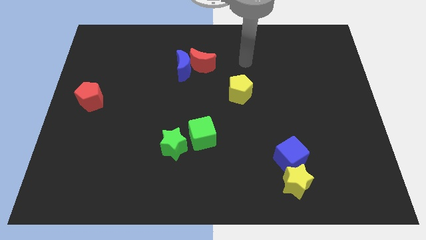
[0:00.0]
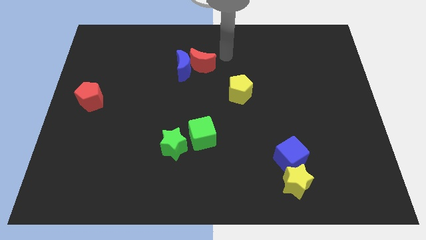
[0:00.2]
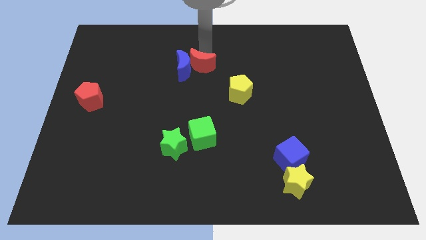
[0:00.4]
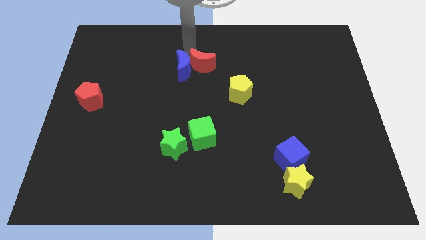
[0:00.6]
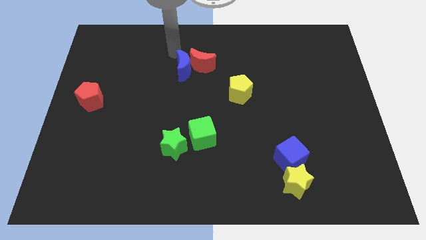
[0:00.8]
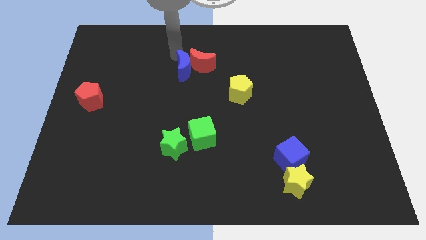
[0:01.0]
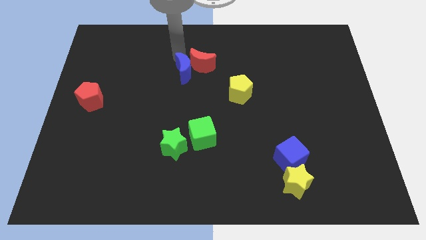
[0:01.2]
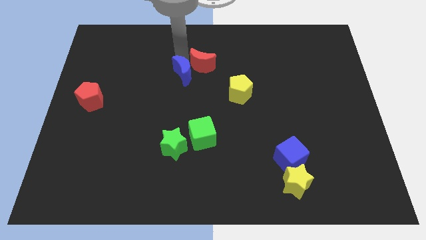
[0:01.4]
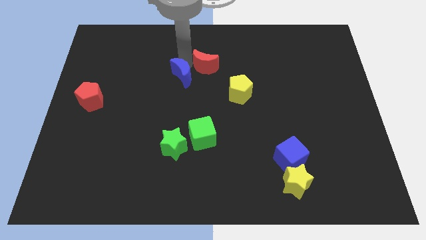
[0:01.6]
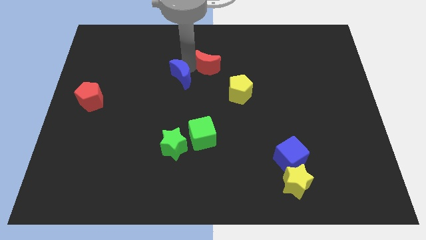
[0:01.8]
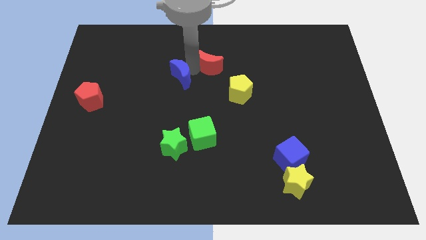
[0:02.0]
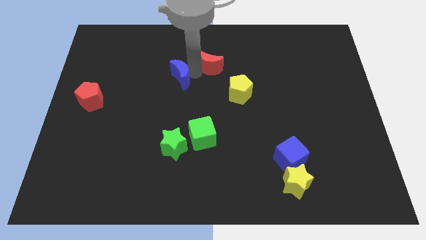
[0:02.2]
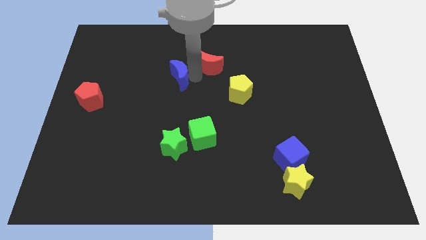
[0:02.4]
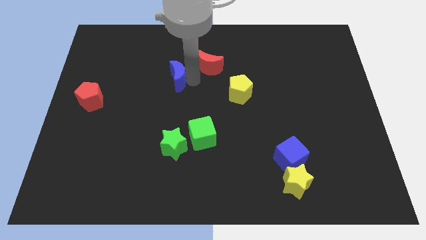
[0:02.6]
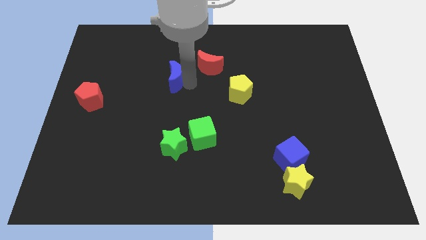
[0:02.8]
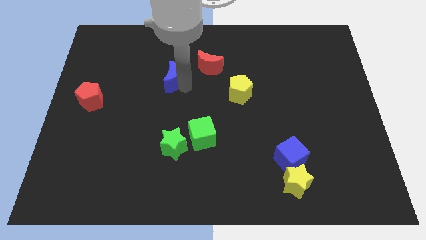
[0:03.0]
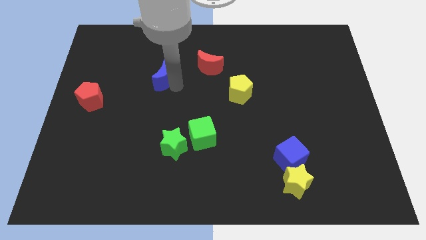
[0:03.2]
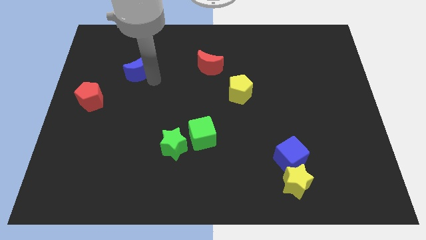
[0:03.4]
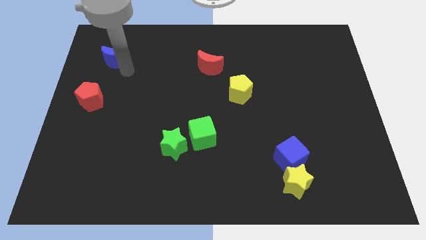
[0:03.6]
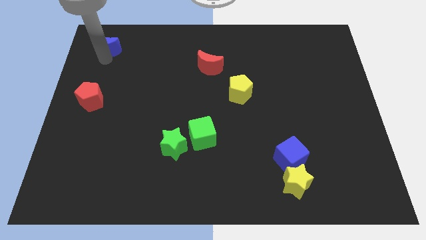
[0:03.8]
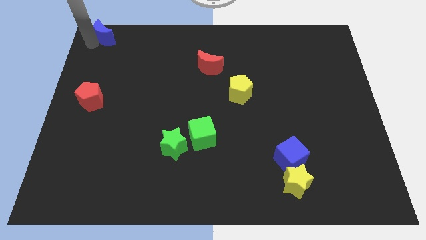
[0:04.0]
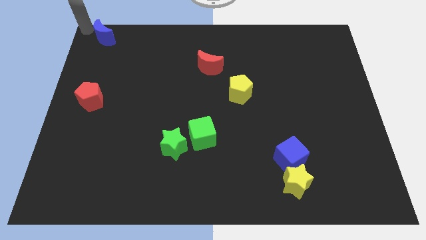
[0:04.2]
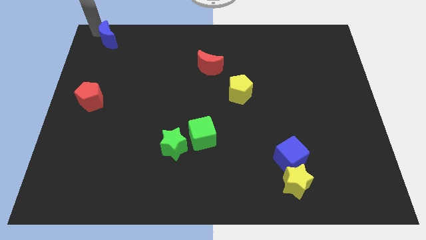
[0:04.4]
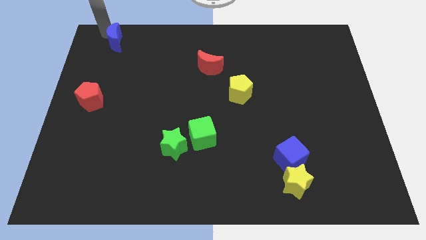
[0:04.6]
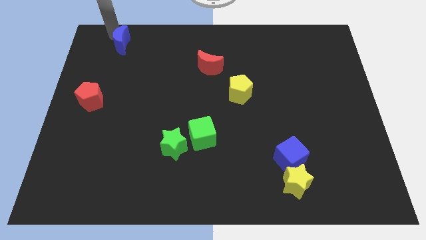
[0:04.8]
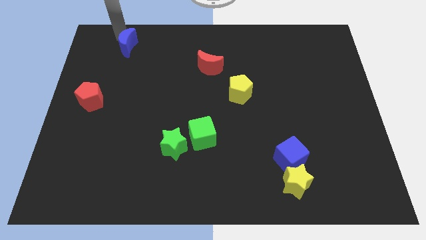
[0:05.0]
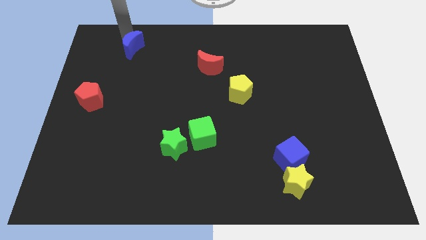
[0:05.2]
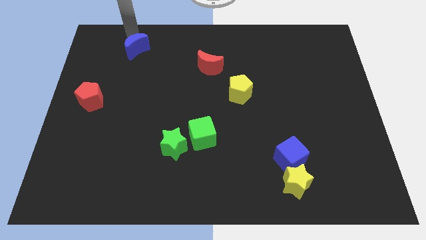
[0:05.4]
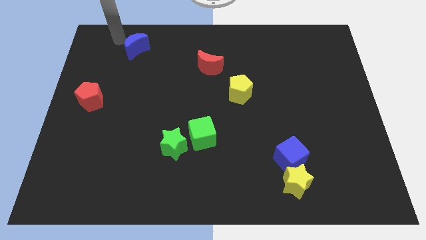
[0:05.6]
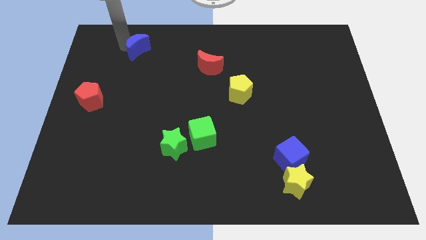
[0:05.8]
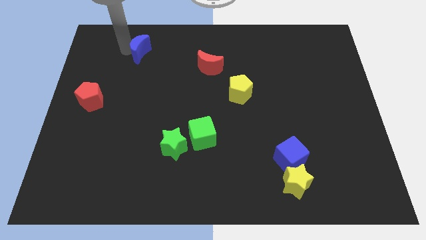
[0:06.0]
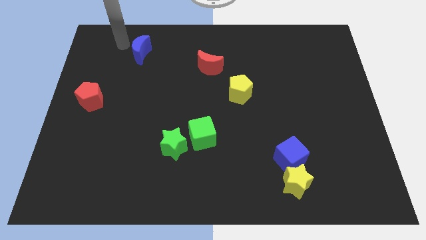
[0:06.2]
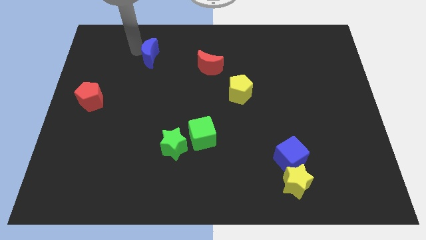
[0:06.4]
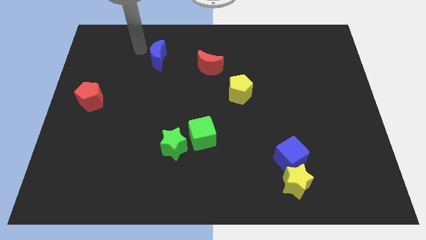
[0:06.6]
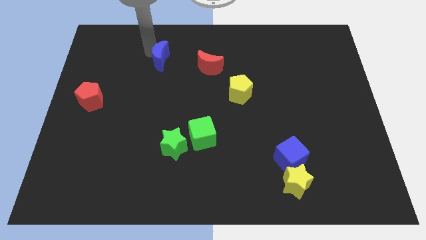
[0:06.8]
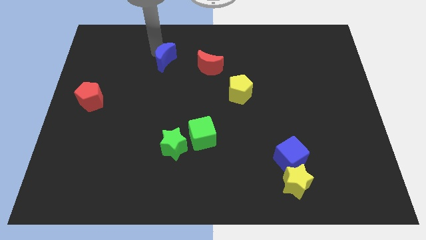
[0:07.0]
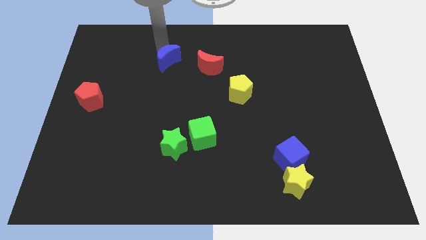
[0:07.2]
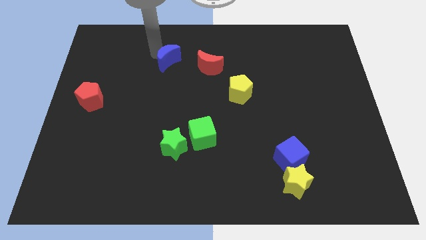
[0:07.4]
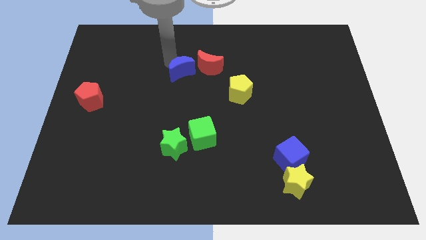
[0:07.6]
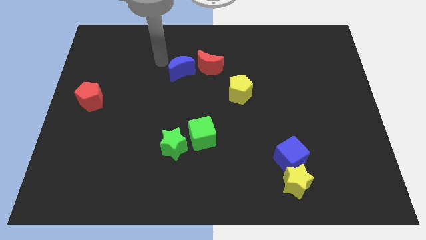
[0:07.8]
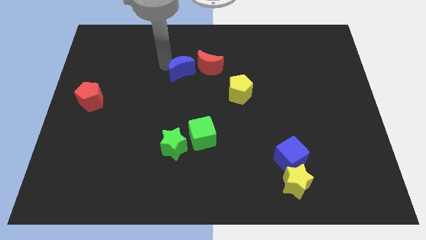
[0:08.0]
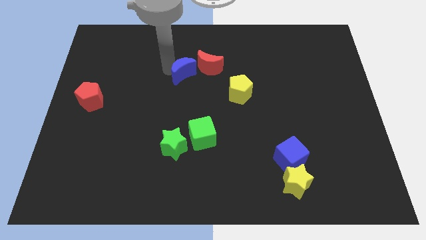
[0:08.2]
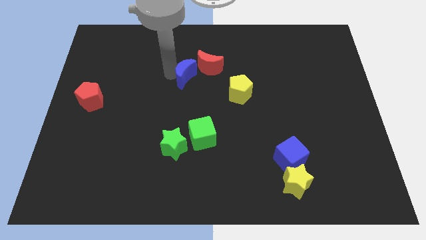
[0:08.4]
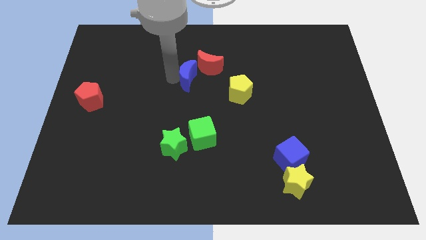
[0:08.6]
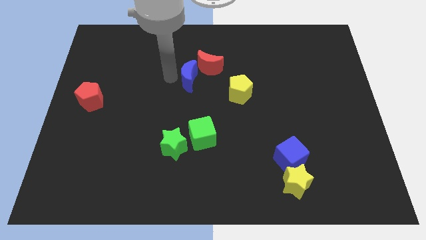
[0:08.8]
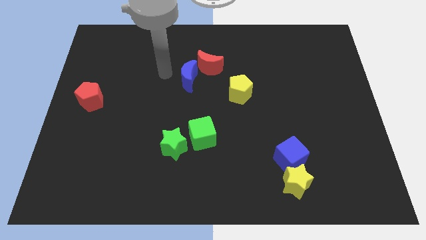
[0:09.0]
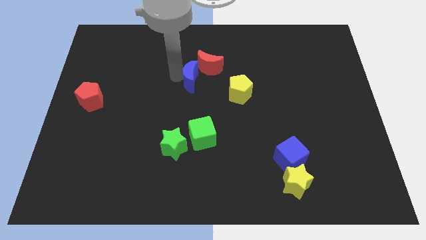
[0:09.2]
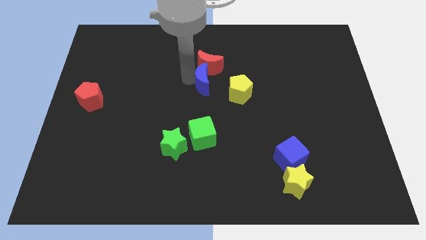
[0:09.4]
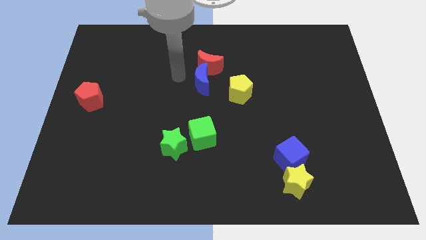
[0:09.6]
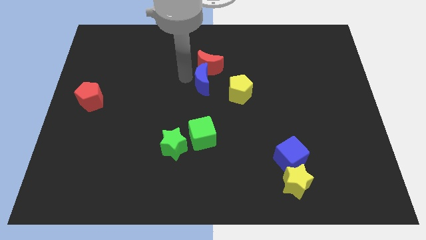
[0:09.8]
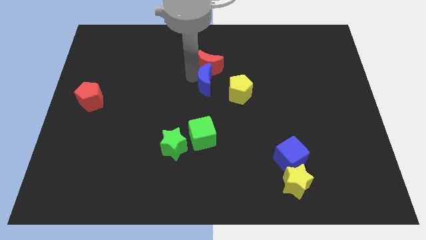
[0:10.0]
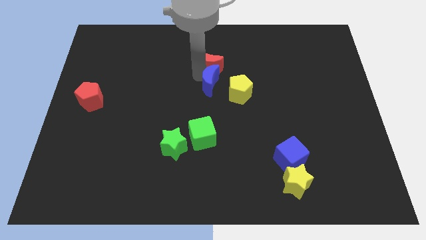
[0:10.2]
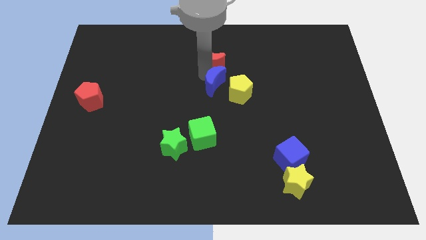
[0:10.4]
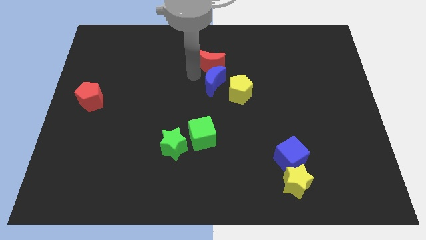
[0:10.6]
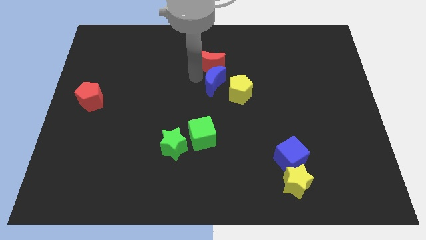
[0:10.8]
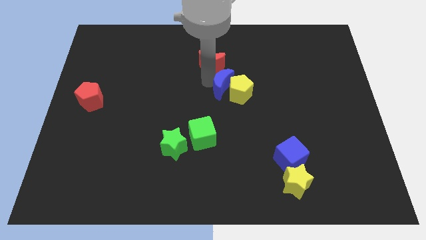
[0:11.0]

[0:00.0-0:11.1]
move the blue moon close to the yellow pentagon

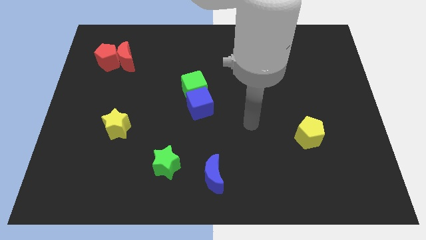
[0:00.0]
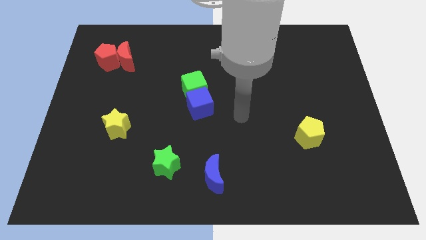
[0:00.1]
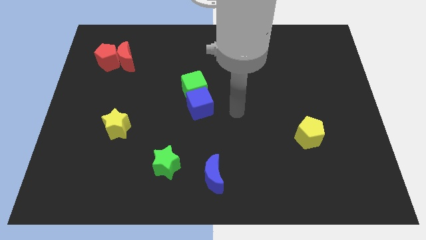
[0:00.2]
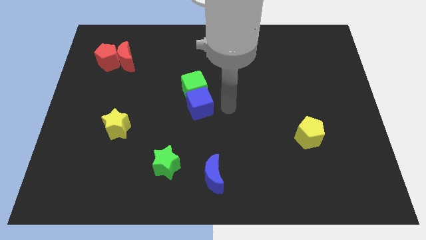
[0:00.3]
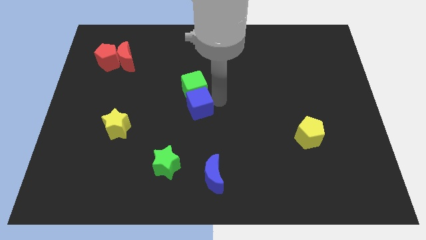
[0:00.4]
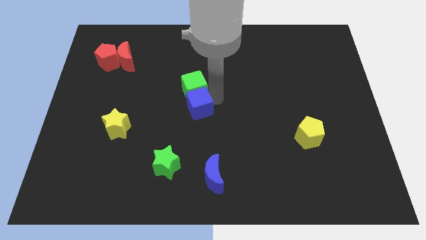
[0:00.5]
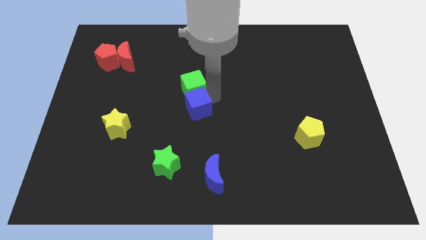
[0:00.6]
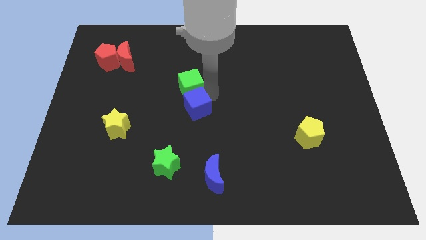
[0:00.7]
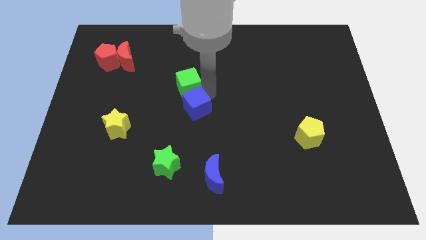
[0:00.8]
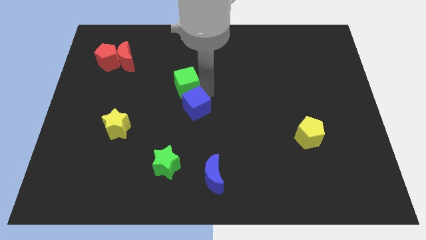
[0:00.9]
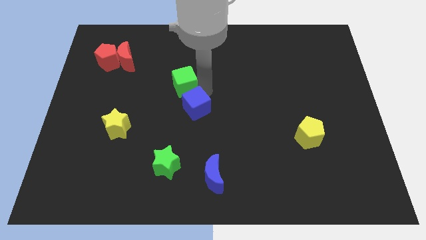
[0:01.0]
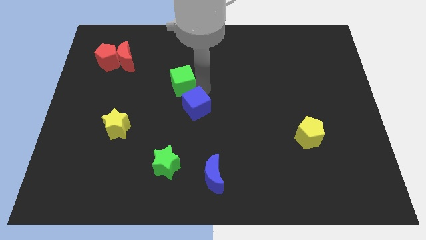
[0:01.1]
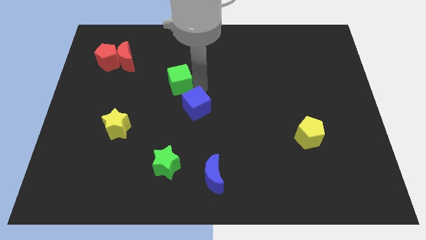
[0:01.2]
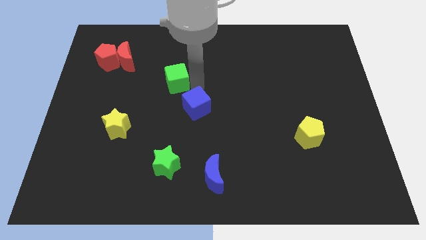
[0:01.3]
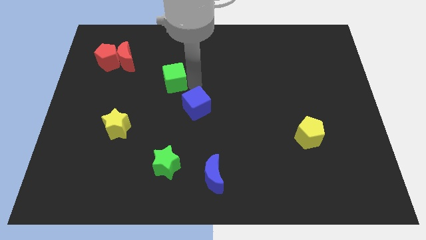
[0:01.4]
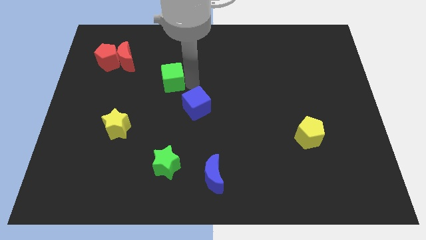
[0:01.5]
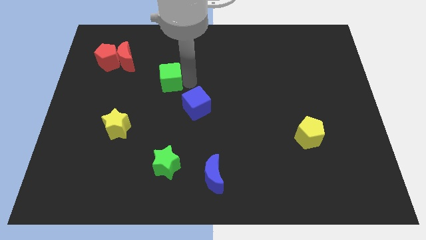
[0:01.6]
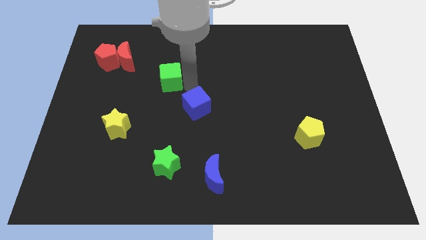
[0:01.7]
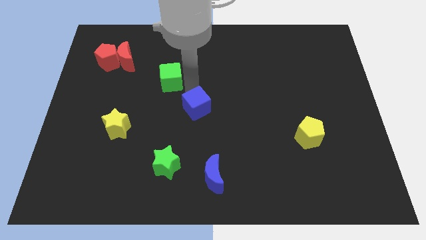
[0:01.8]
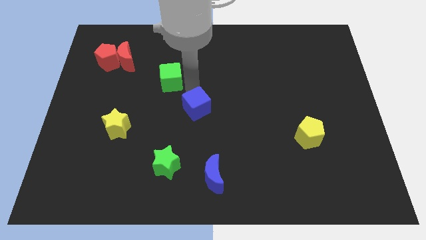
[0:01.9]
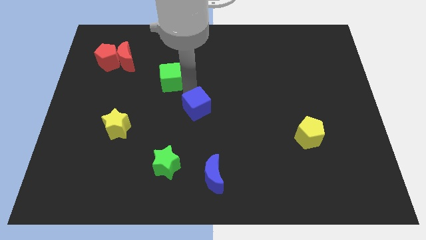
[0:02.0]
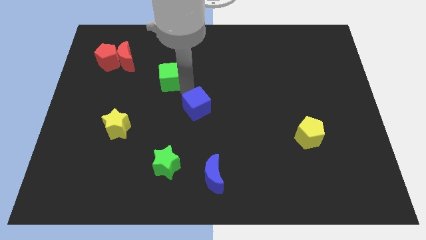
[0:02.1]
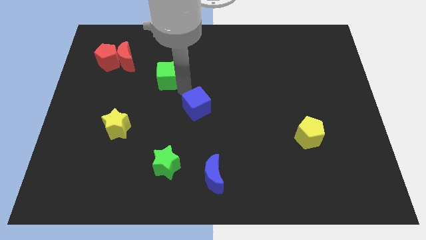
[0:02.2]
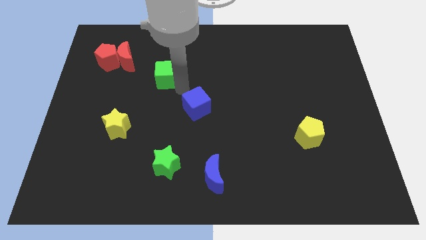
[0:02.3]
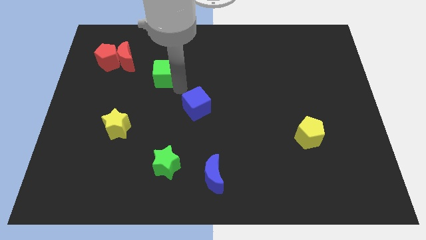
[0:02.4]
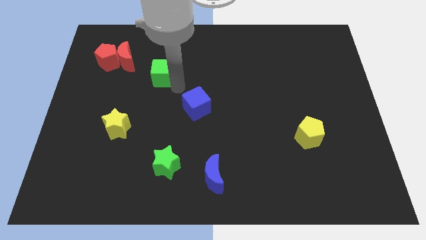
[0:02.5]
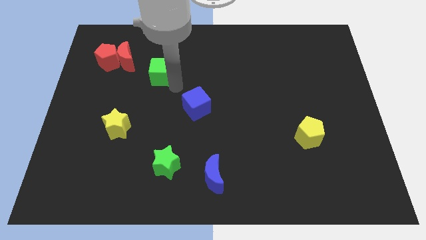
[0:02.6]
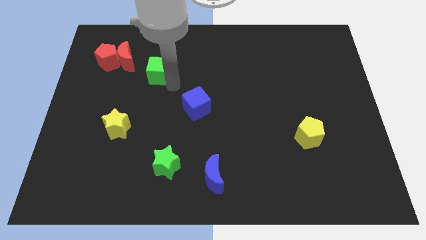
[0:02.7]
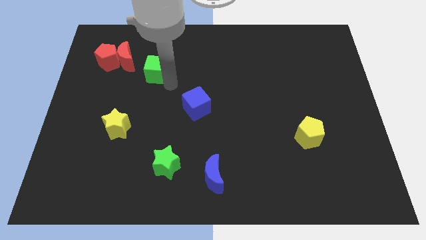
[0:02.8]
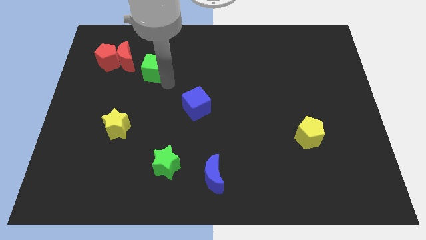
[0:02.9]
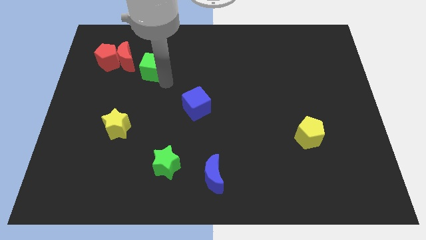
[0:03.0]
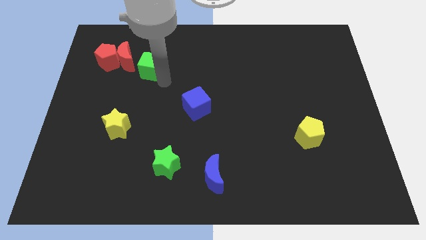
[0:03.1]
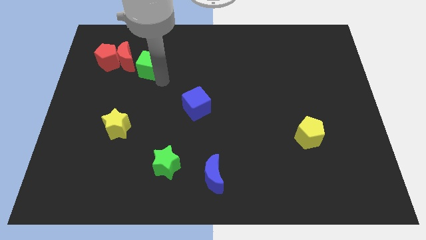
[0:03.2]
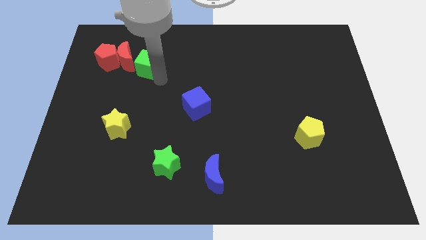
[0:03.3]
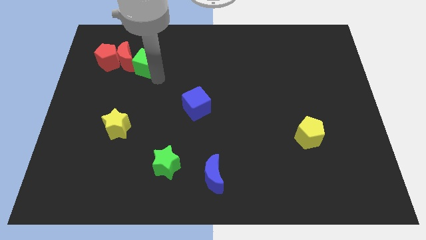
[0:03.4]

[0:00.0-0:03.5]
push the green cube towards the red moon
